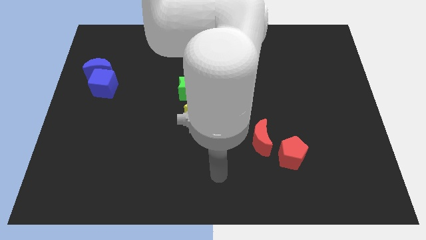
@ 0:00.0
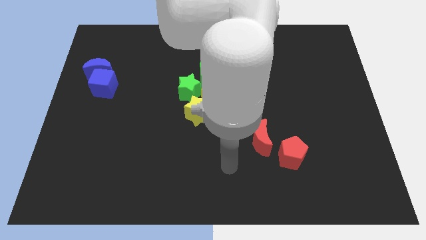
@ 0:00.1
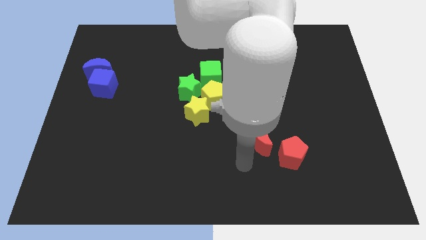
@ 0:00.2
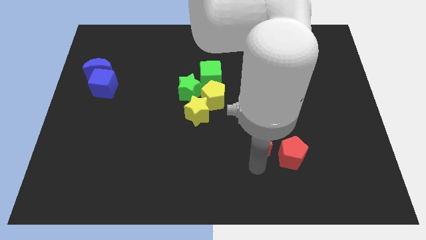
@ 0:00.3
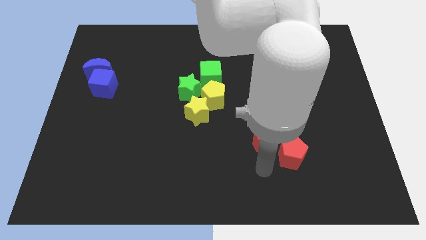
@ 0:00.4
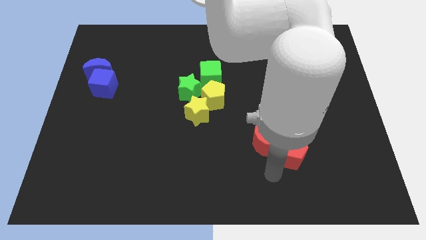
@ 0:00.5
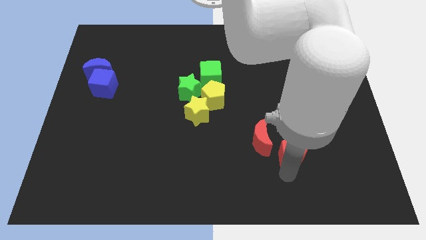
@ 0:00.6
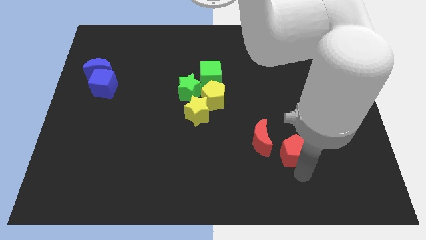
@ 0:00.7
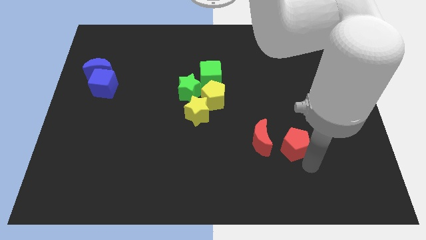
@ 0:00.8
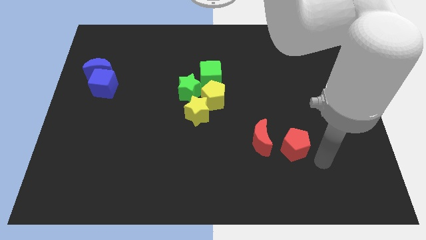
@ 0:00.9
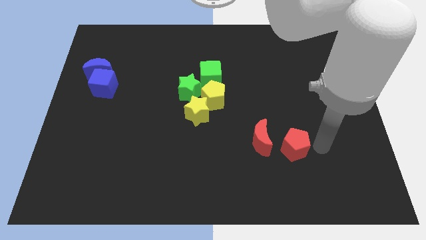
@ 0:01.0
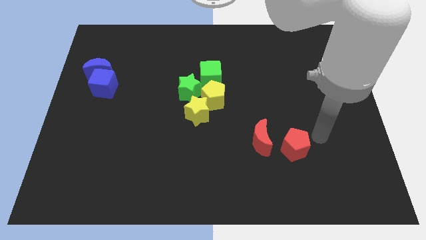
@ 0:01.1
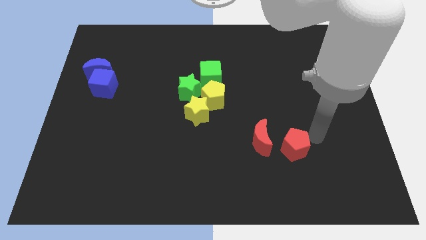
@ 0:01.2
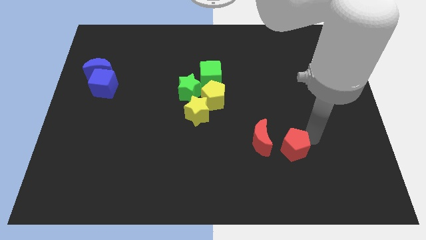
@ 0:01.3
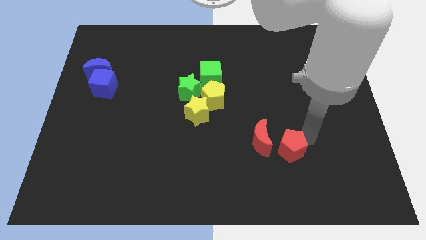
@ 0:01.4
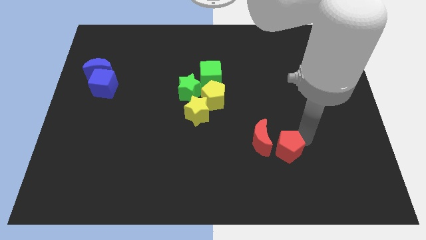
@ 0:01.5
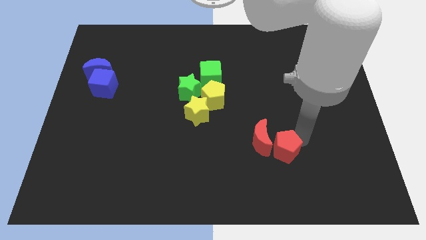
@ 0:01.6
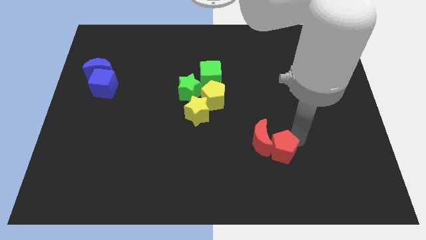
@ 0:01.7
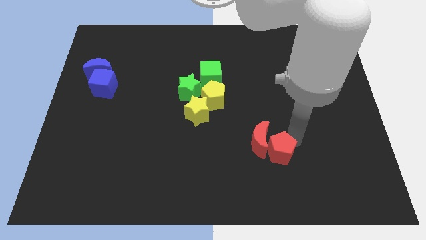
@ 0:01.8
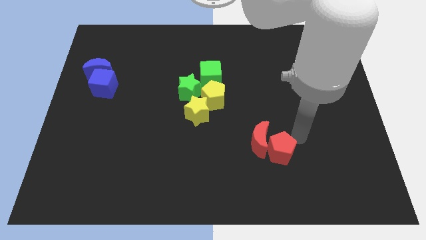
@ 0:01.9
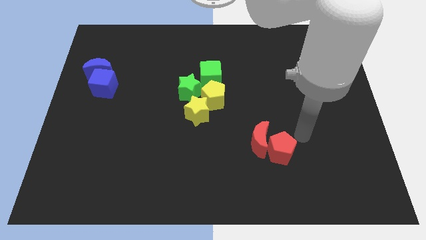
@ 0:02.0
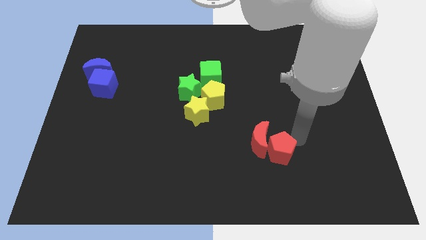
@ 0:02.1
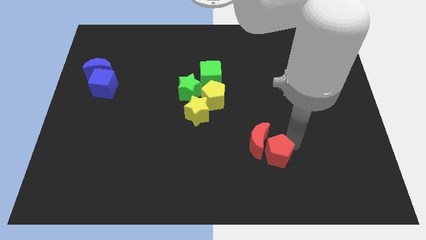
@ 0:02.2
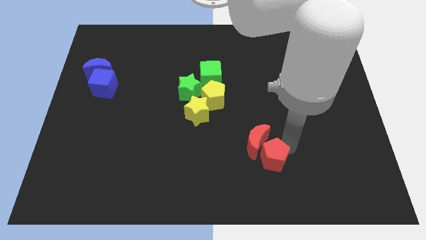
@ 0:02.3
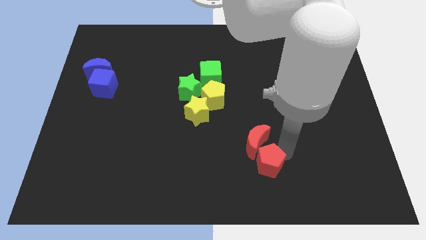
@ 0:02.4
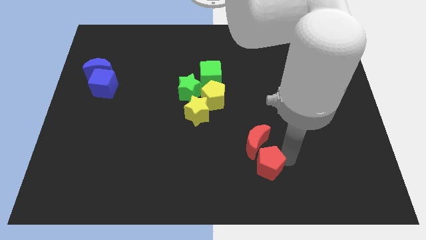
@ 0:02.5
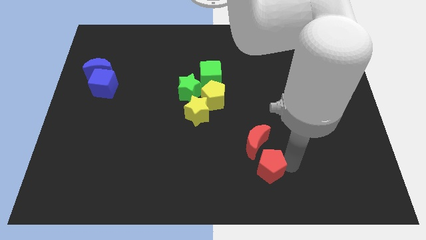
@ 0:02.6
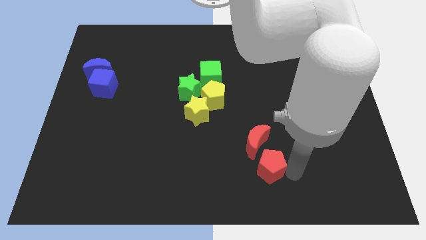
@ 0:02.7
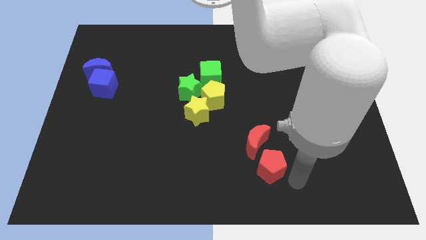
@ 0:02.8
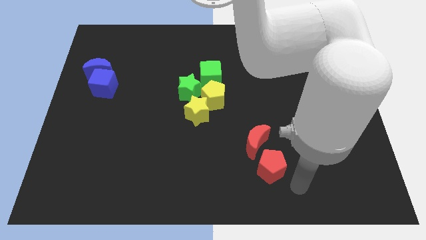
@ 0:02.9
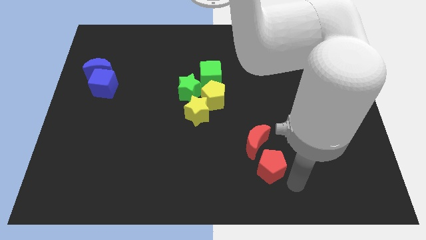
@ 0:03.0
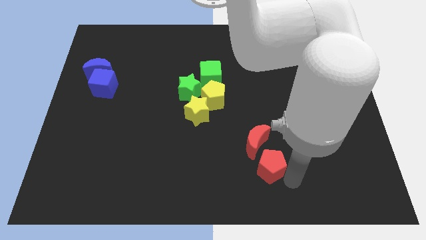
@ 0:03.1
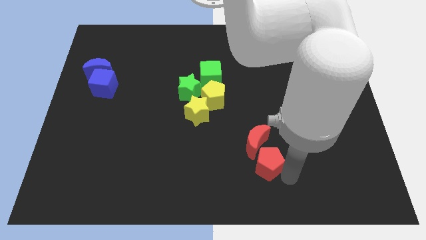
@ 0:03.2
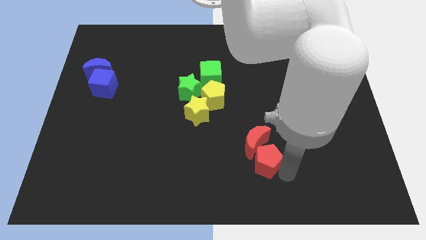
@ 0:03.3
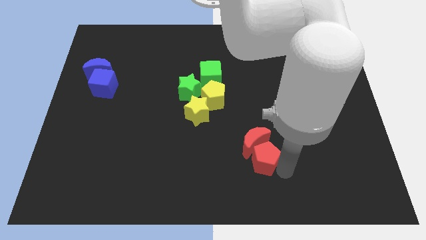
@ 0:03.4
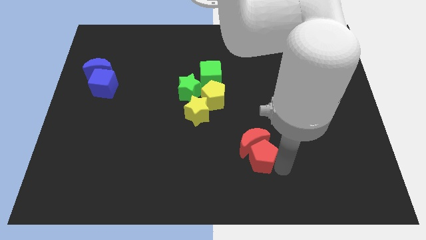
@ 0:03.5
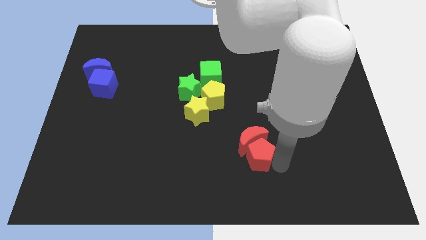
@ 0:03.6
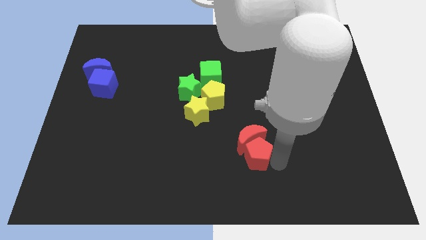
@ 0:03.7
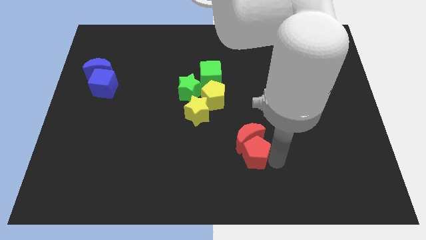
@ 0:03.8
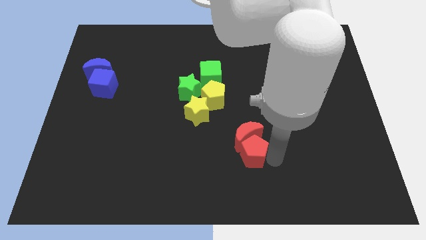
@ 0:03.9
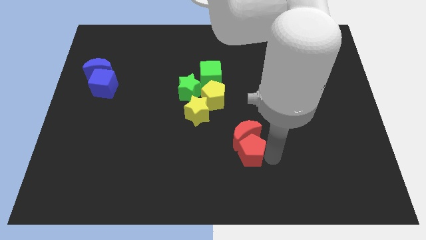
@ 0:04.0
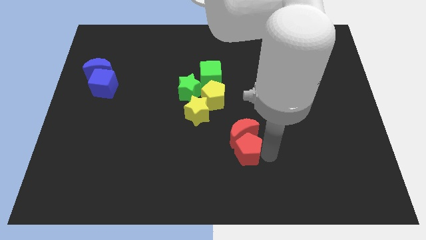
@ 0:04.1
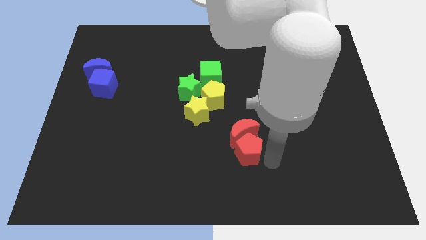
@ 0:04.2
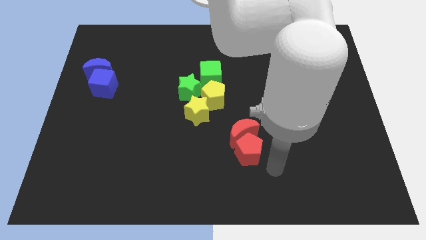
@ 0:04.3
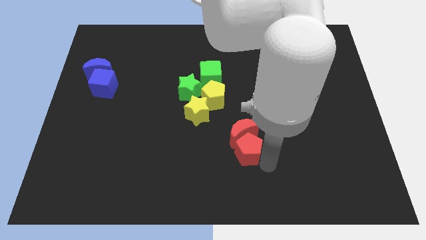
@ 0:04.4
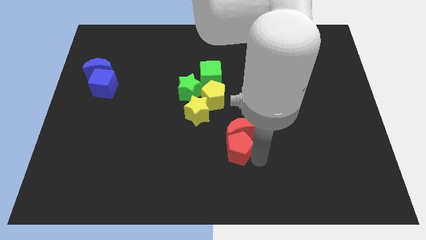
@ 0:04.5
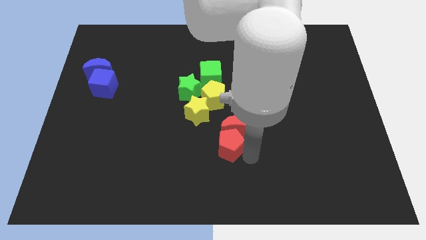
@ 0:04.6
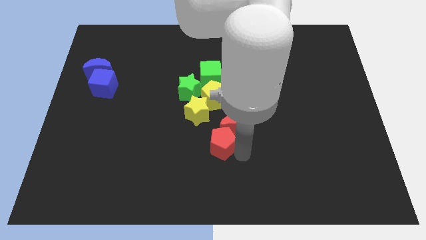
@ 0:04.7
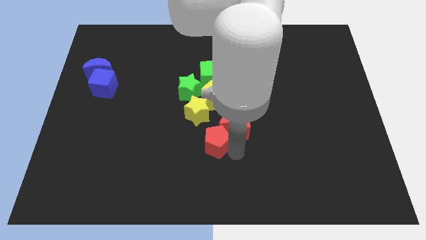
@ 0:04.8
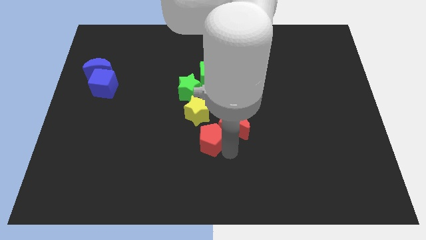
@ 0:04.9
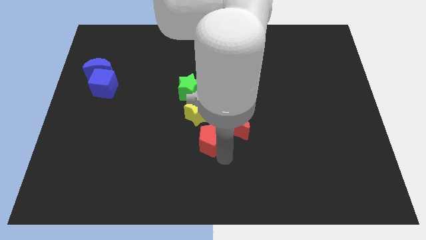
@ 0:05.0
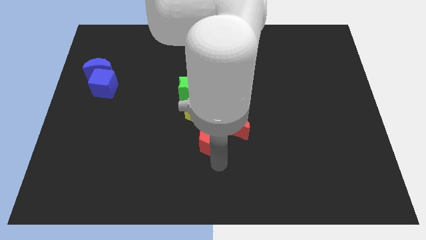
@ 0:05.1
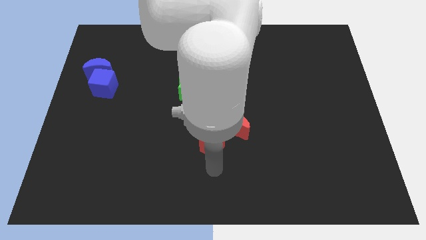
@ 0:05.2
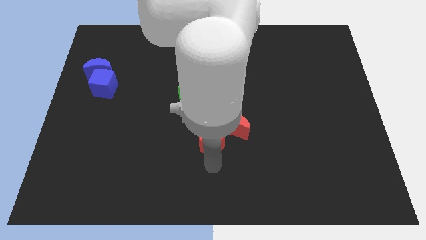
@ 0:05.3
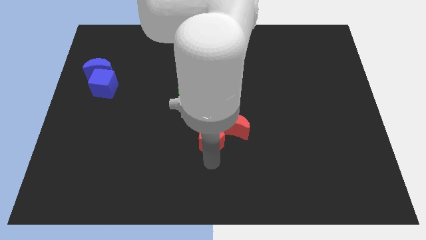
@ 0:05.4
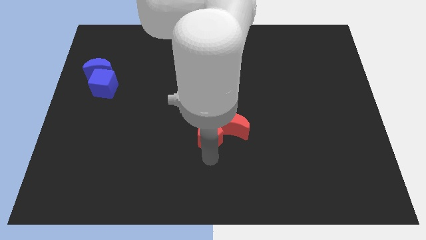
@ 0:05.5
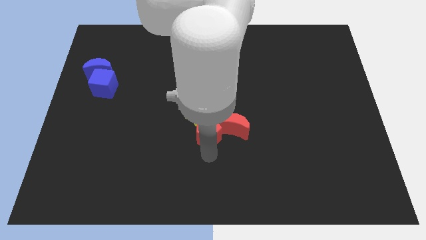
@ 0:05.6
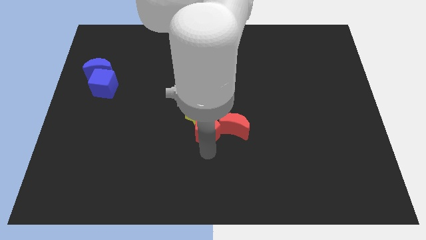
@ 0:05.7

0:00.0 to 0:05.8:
slide the red pentagon to the bottom side of the green cube

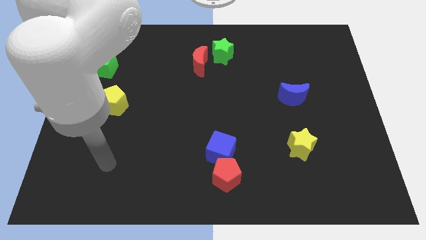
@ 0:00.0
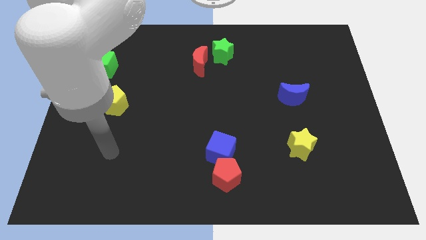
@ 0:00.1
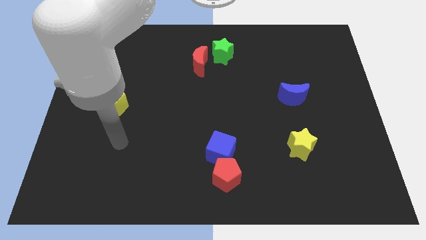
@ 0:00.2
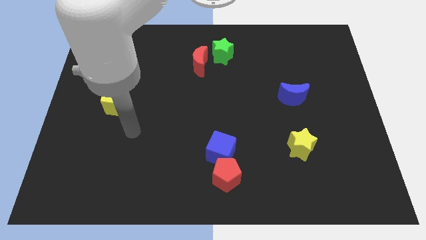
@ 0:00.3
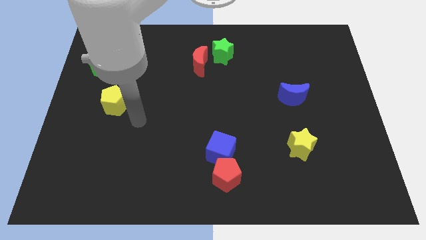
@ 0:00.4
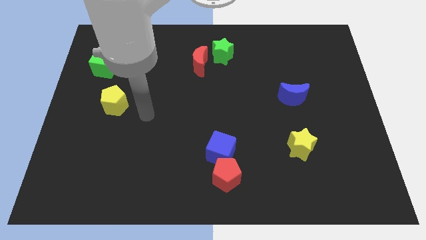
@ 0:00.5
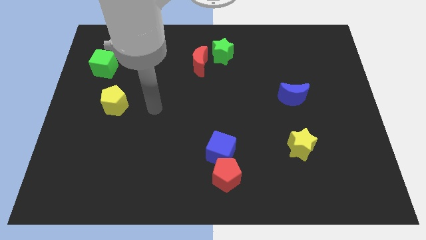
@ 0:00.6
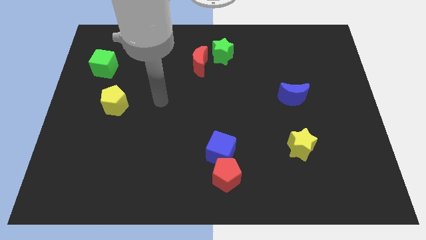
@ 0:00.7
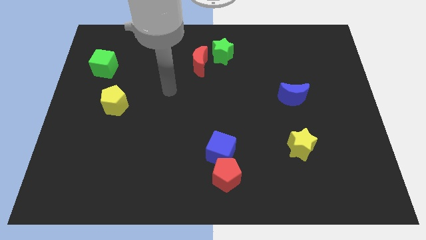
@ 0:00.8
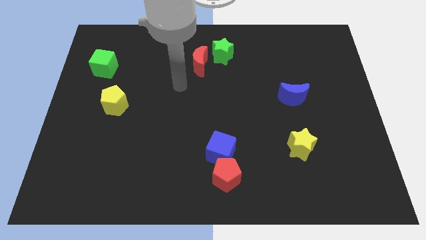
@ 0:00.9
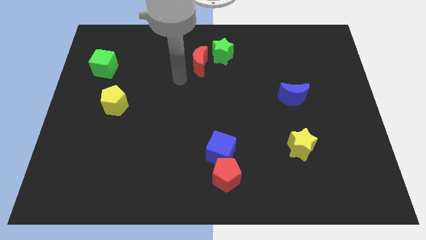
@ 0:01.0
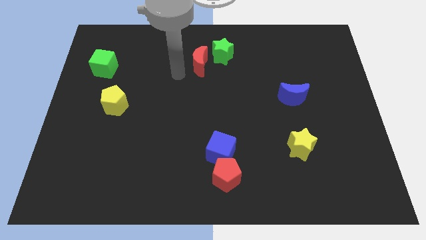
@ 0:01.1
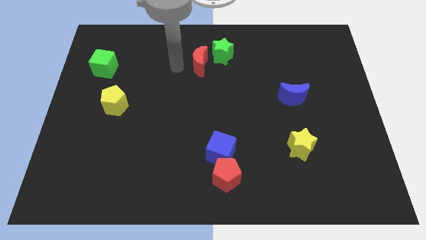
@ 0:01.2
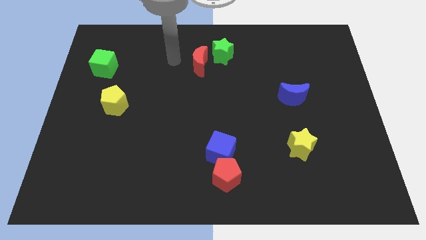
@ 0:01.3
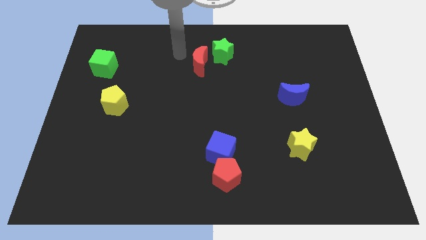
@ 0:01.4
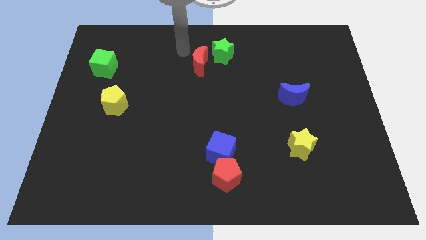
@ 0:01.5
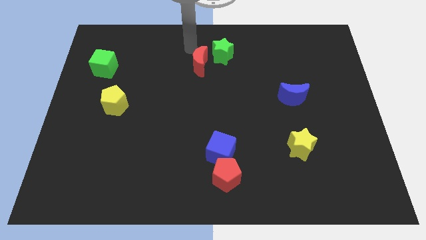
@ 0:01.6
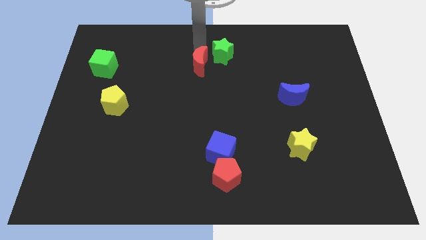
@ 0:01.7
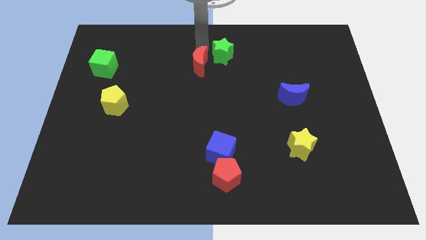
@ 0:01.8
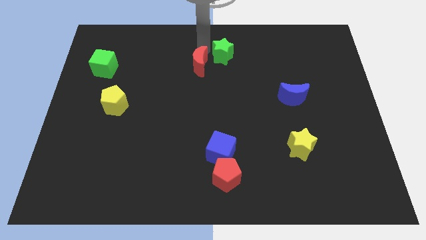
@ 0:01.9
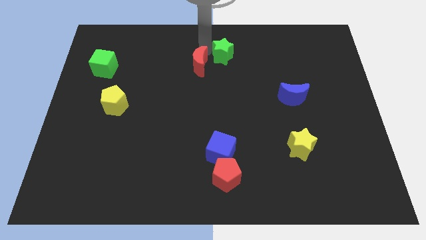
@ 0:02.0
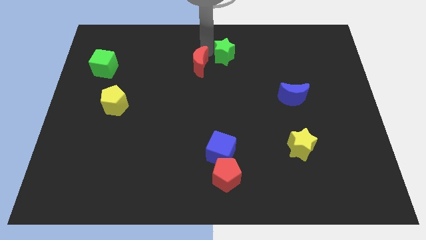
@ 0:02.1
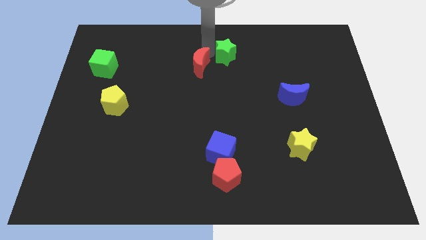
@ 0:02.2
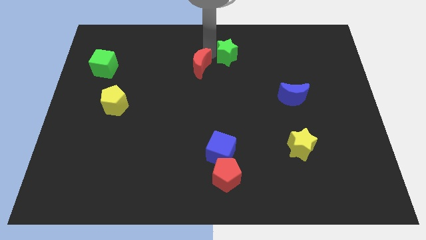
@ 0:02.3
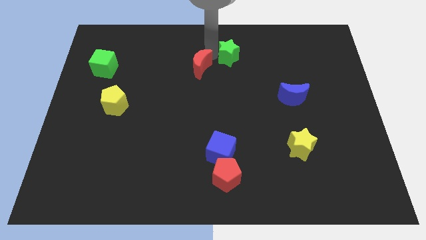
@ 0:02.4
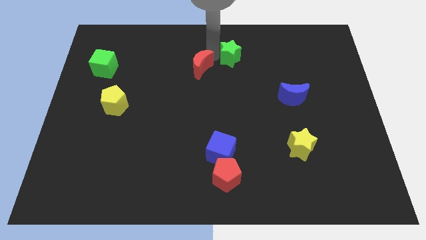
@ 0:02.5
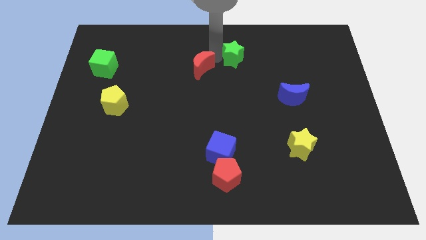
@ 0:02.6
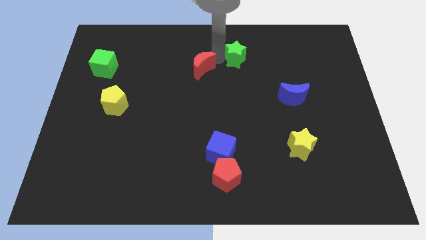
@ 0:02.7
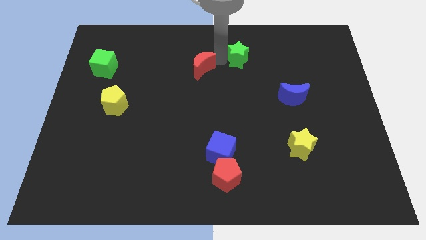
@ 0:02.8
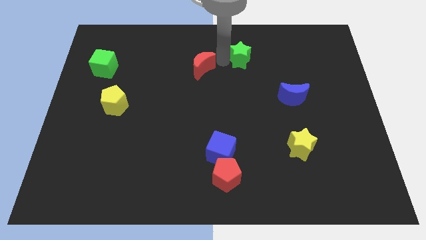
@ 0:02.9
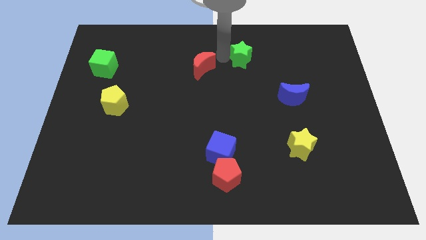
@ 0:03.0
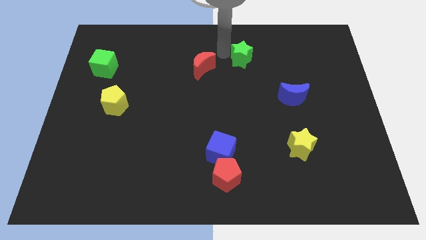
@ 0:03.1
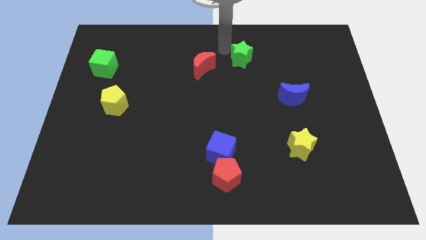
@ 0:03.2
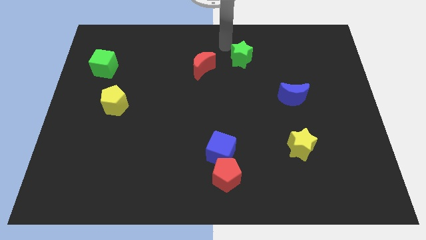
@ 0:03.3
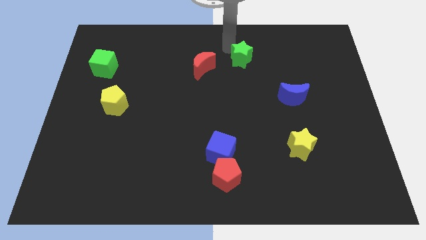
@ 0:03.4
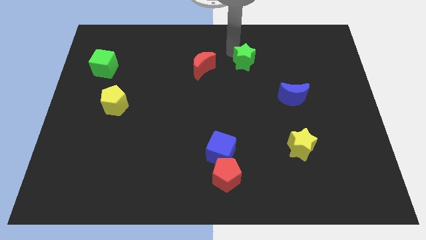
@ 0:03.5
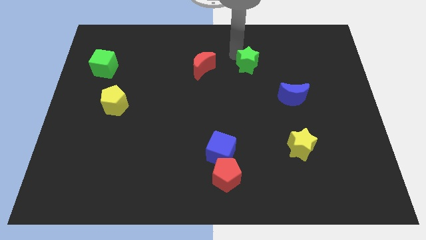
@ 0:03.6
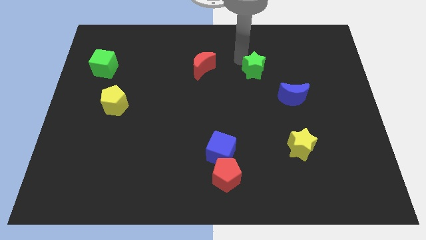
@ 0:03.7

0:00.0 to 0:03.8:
push the green star diagonally up and to the left of the blue moon
